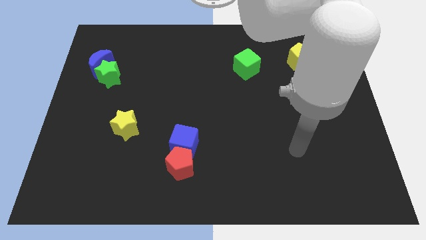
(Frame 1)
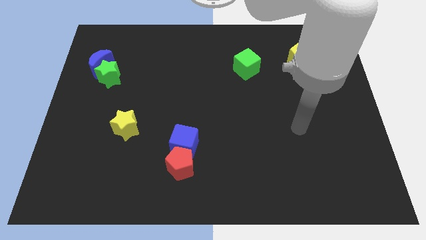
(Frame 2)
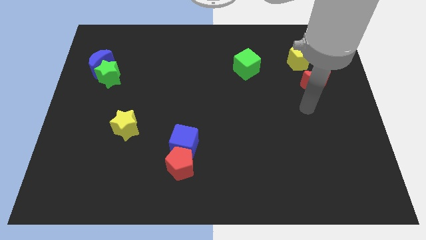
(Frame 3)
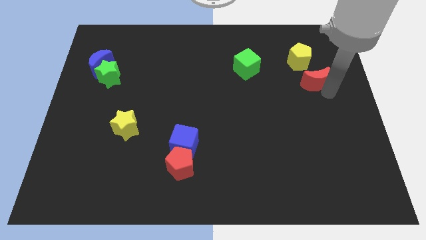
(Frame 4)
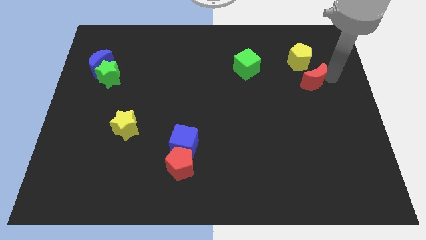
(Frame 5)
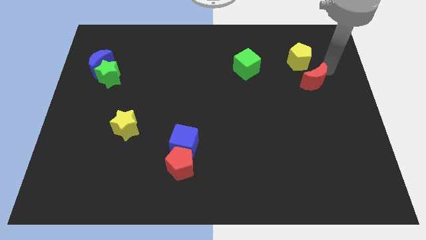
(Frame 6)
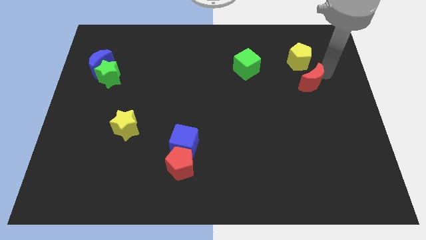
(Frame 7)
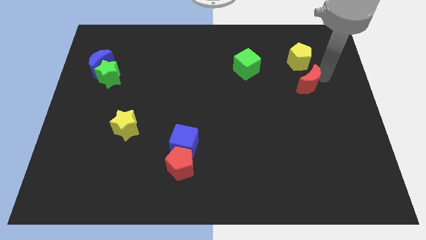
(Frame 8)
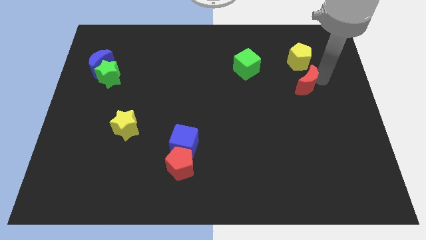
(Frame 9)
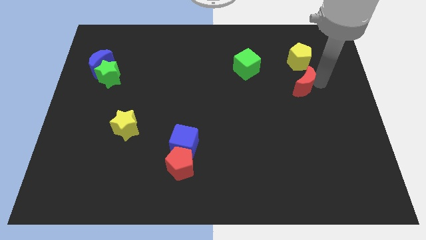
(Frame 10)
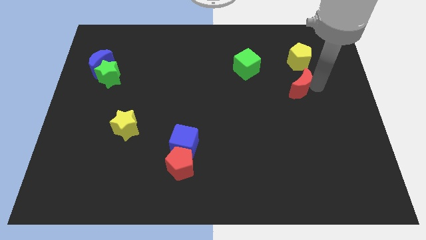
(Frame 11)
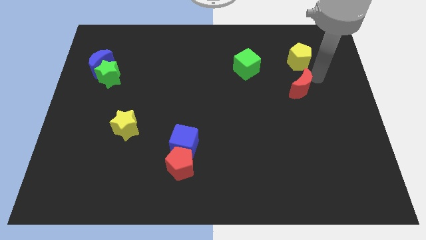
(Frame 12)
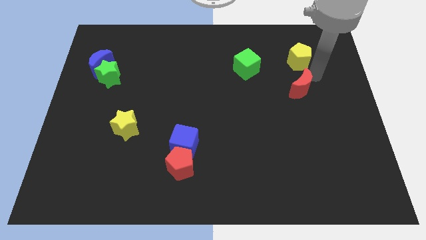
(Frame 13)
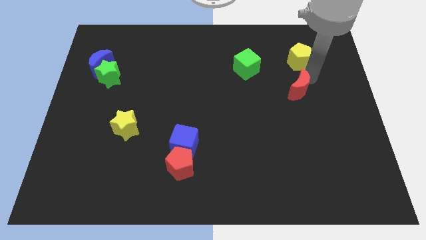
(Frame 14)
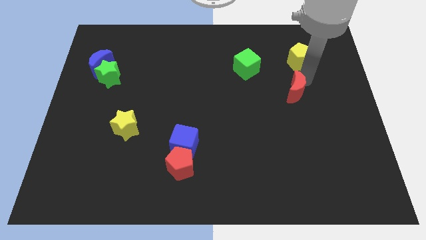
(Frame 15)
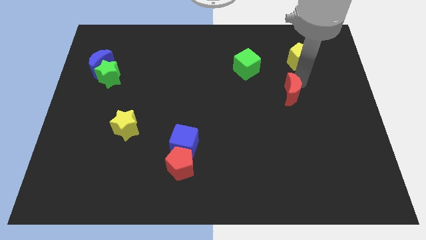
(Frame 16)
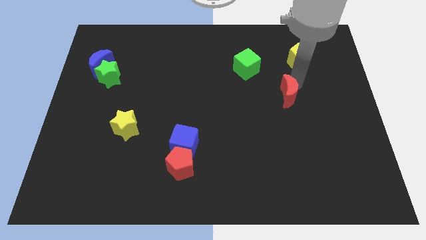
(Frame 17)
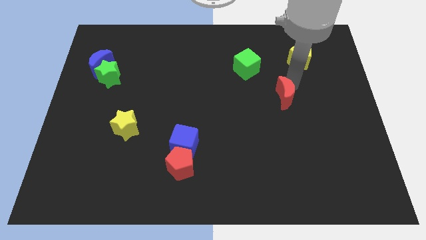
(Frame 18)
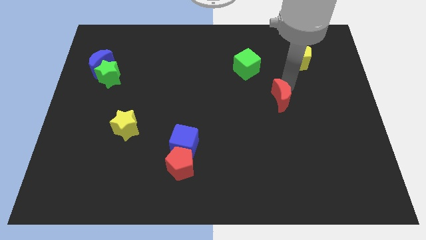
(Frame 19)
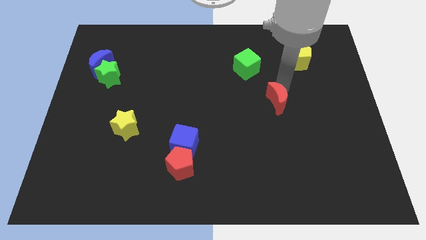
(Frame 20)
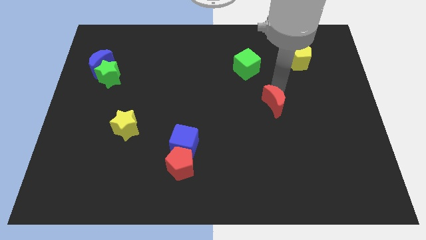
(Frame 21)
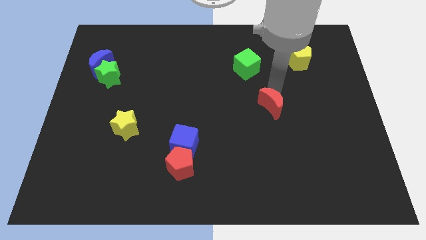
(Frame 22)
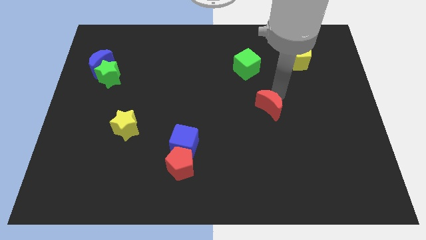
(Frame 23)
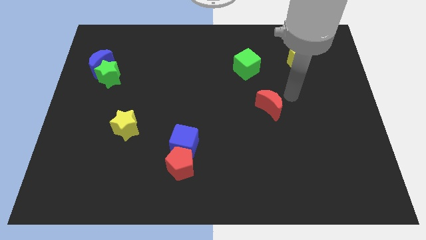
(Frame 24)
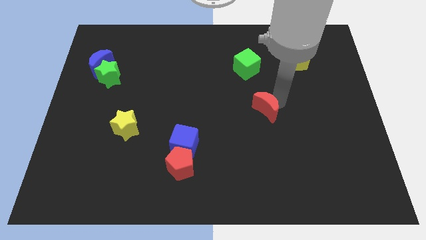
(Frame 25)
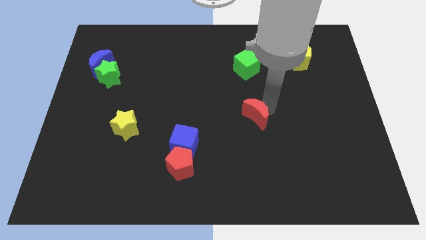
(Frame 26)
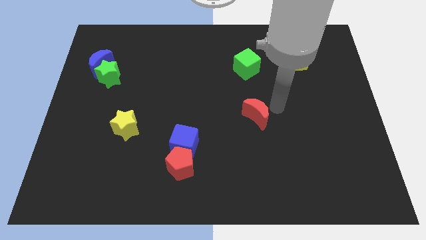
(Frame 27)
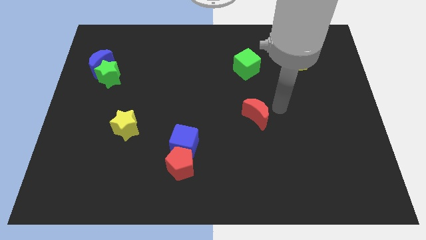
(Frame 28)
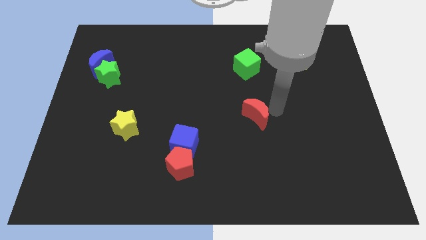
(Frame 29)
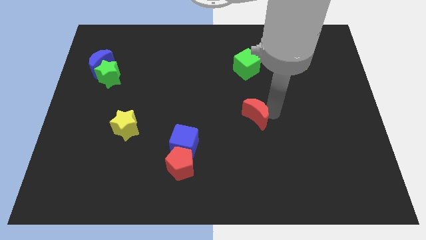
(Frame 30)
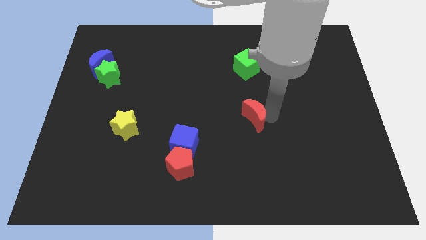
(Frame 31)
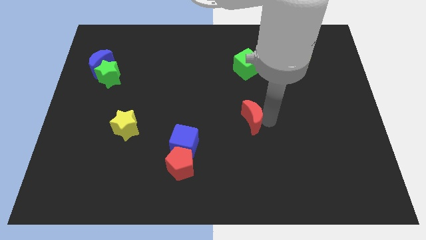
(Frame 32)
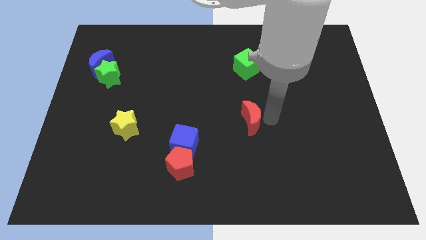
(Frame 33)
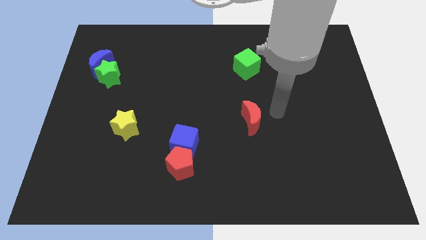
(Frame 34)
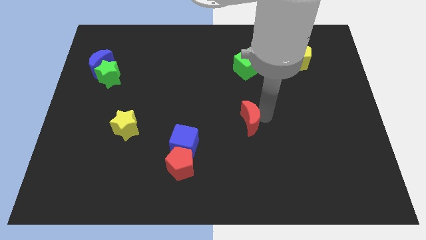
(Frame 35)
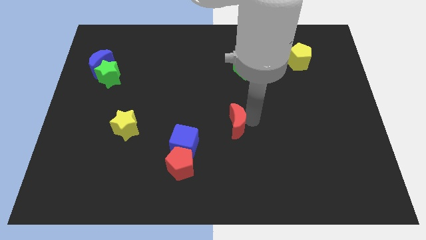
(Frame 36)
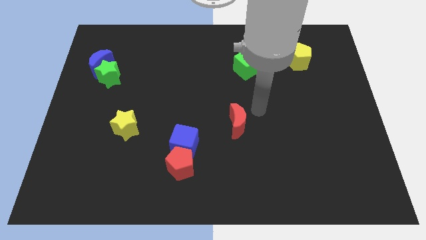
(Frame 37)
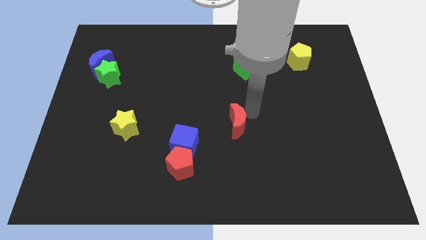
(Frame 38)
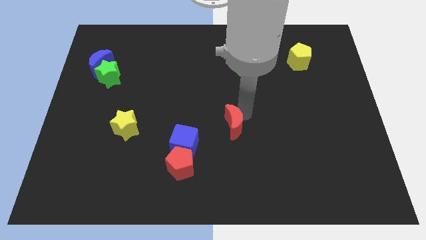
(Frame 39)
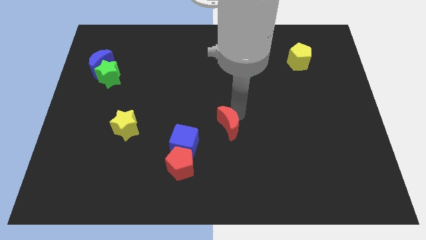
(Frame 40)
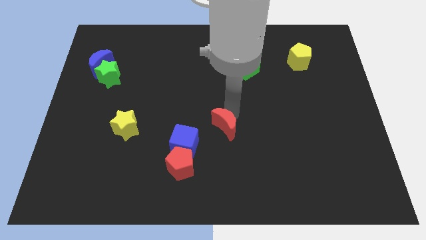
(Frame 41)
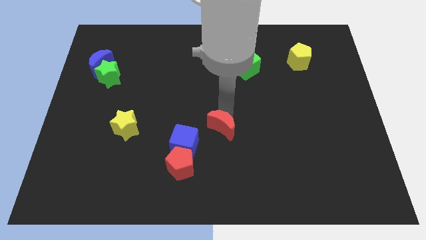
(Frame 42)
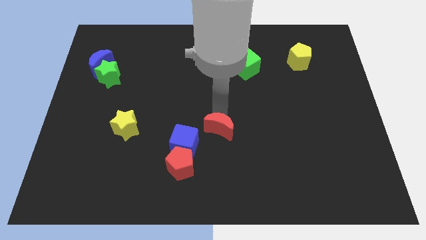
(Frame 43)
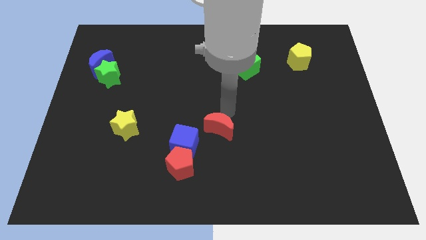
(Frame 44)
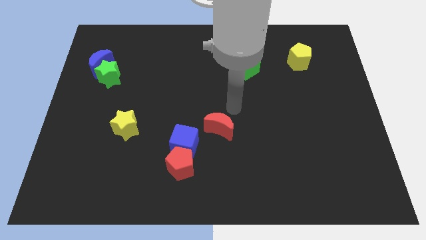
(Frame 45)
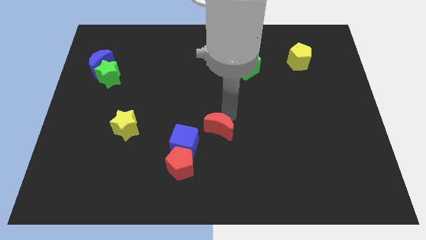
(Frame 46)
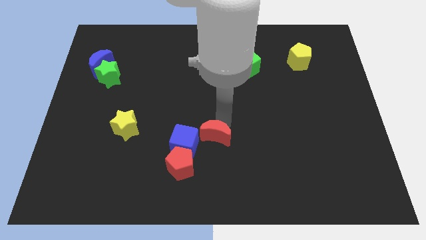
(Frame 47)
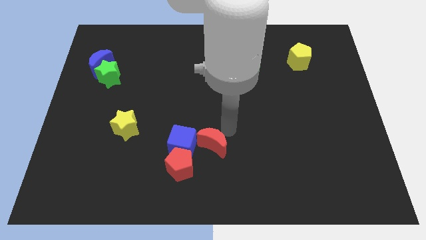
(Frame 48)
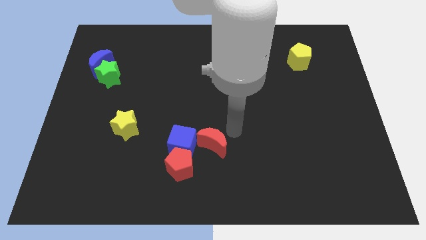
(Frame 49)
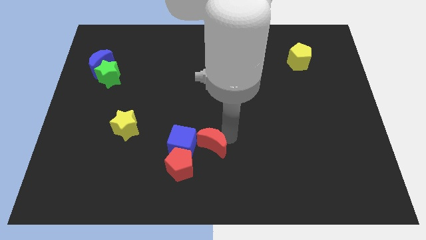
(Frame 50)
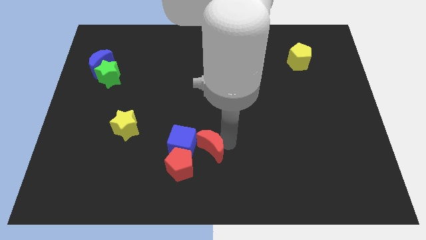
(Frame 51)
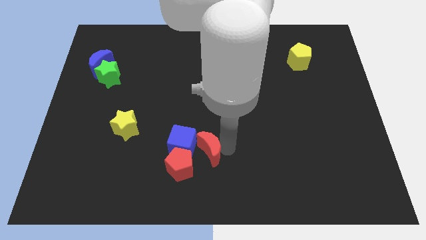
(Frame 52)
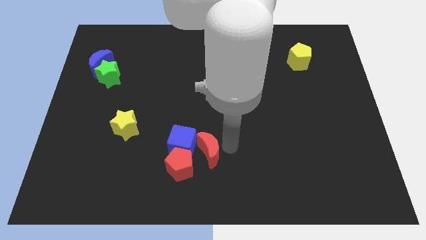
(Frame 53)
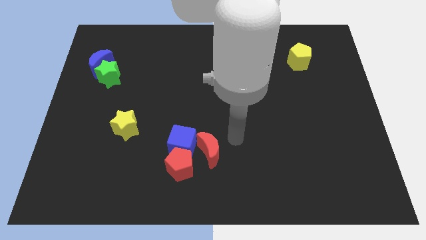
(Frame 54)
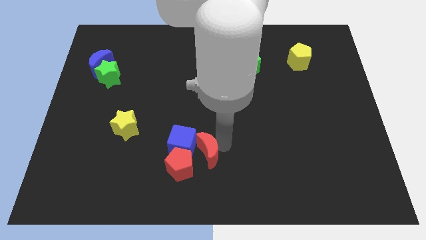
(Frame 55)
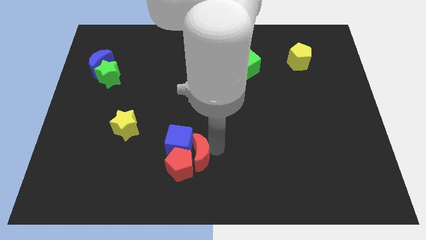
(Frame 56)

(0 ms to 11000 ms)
put the red moon towards the red pentagon

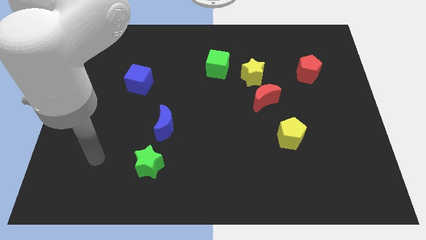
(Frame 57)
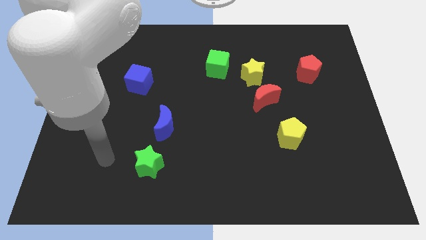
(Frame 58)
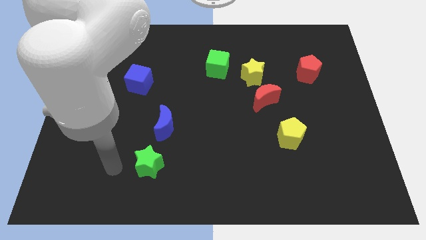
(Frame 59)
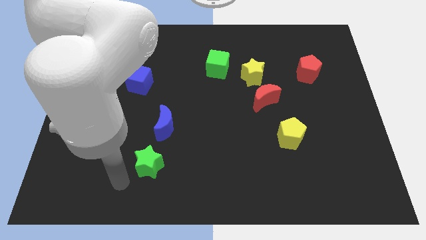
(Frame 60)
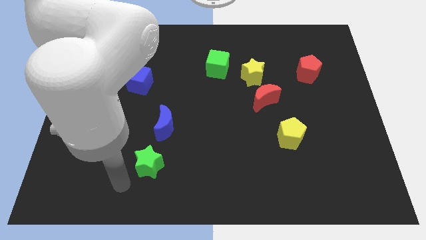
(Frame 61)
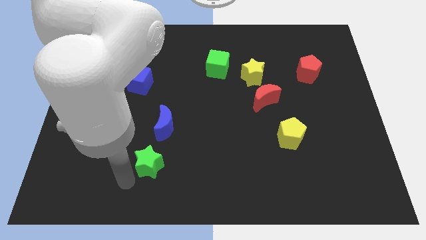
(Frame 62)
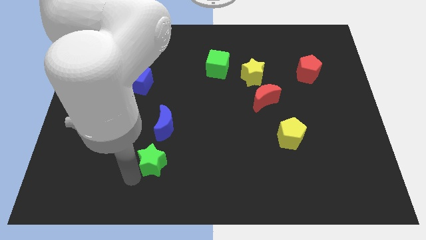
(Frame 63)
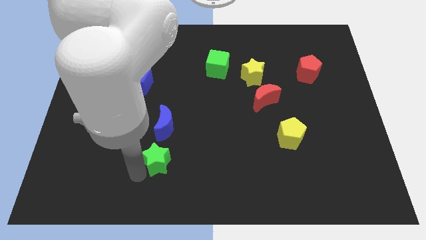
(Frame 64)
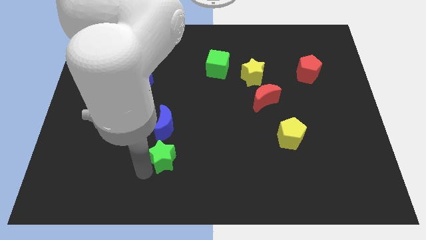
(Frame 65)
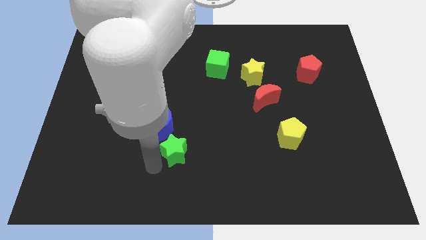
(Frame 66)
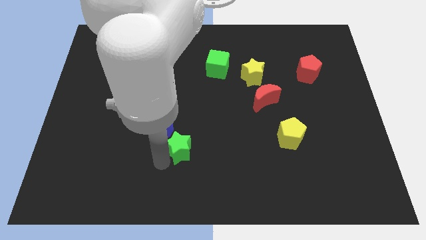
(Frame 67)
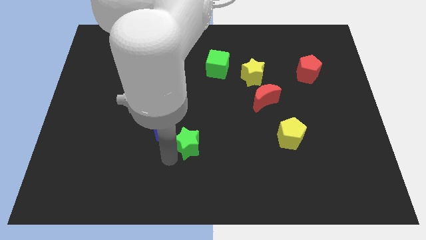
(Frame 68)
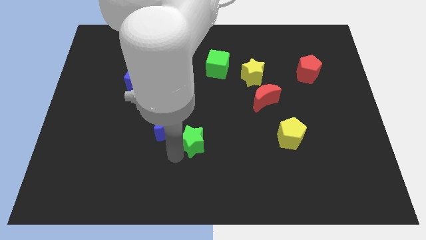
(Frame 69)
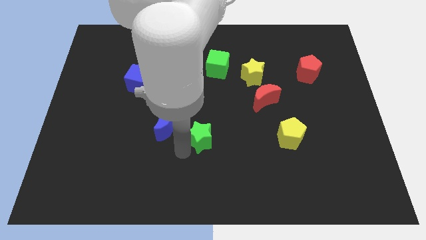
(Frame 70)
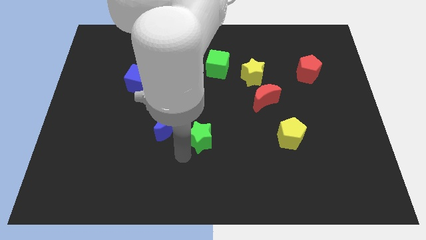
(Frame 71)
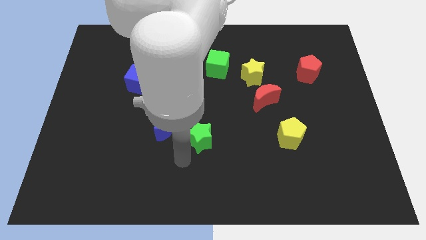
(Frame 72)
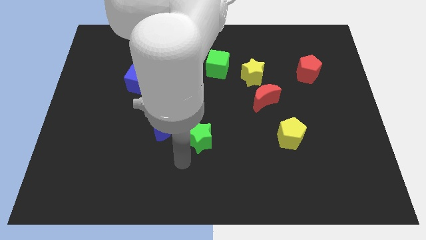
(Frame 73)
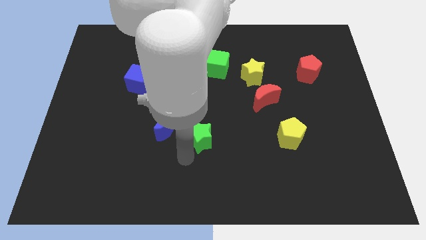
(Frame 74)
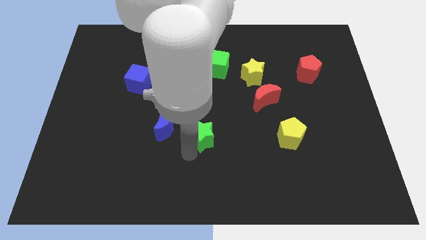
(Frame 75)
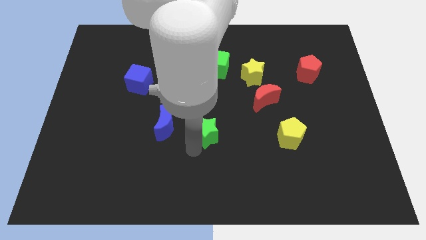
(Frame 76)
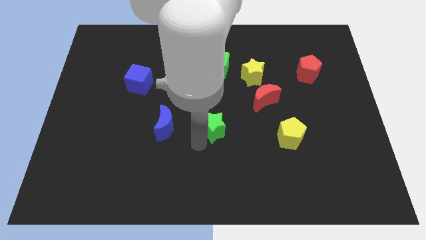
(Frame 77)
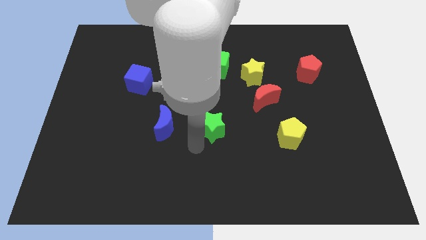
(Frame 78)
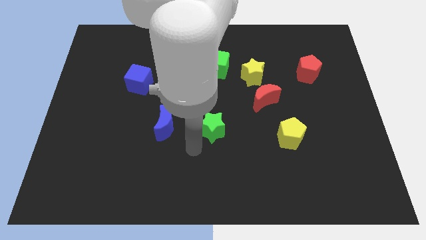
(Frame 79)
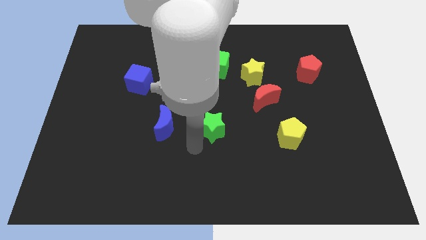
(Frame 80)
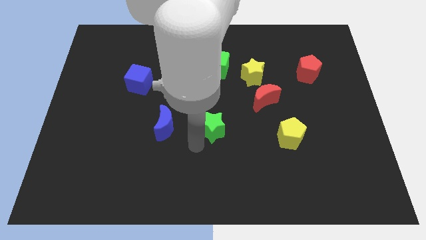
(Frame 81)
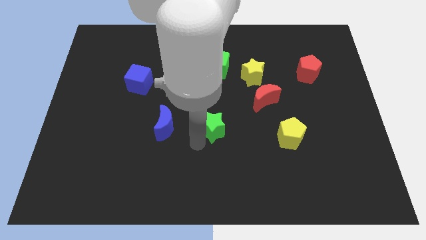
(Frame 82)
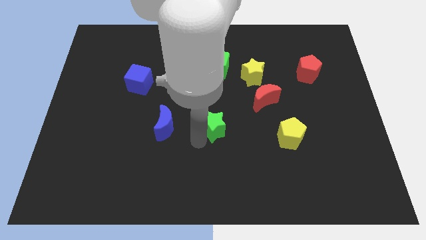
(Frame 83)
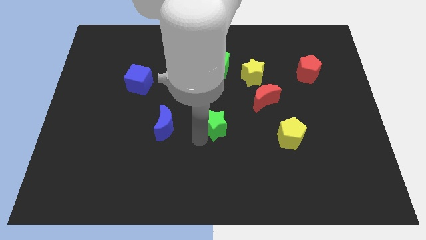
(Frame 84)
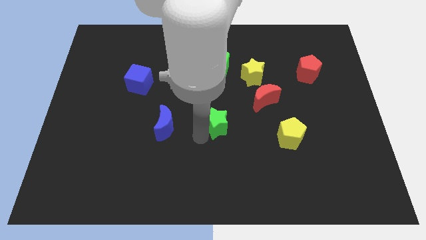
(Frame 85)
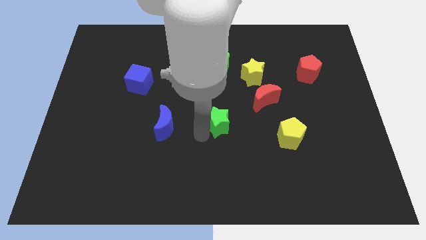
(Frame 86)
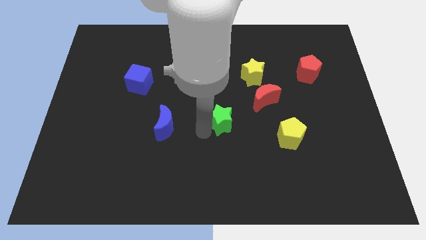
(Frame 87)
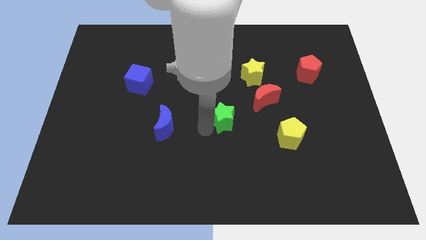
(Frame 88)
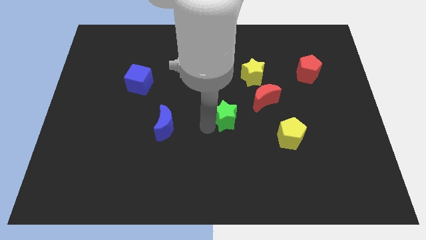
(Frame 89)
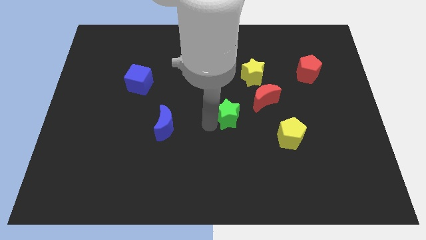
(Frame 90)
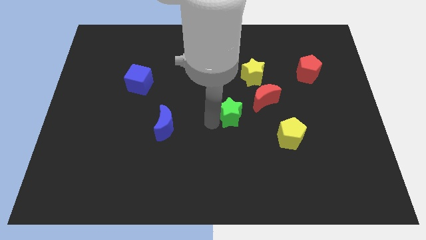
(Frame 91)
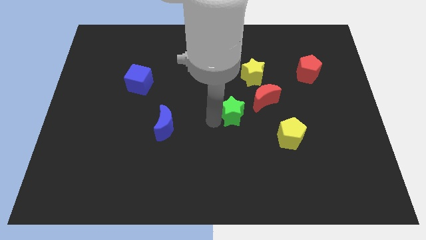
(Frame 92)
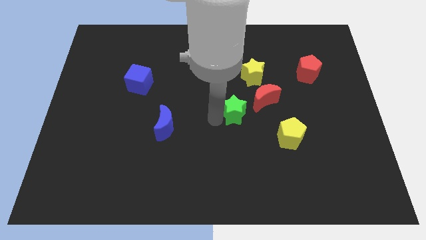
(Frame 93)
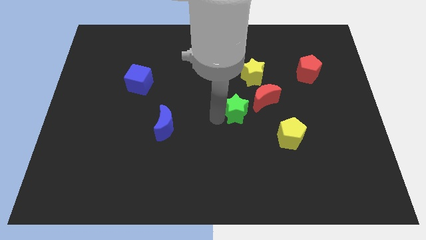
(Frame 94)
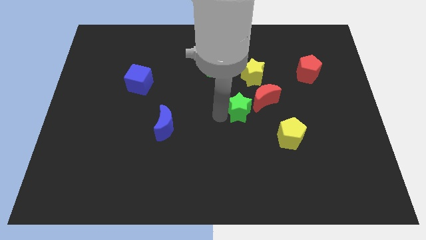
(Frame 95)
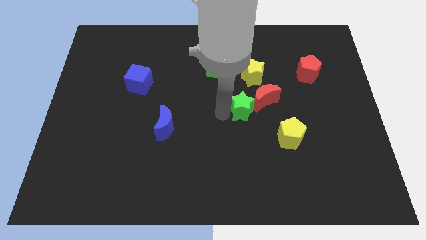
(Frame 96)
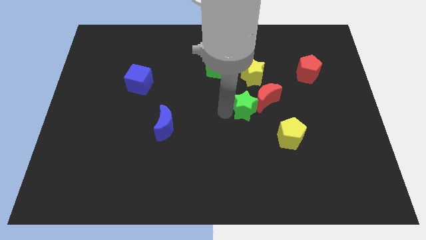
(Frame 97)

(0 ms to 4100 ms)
move the green star to the red moon
